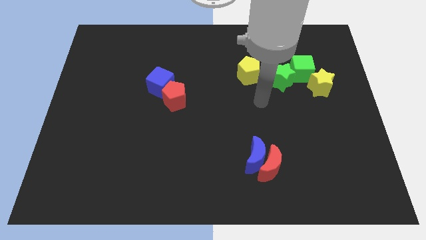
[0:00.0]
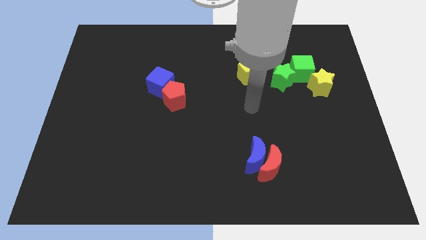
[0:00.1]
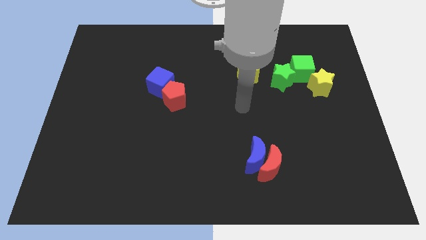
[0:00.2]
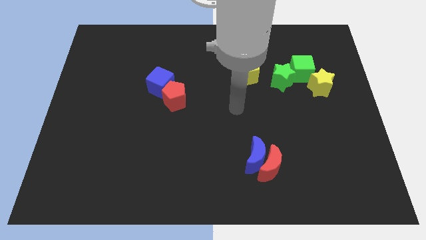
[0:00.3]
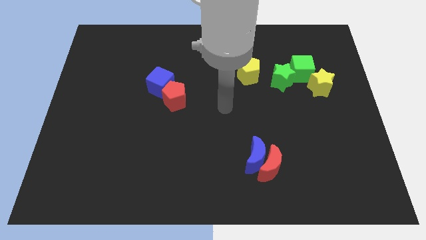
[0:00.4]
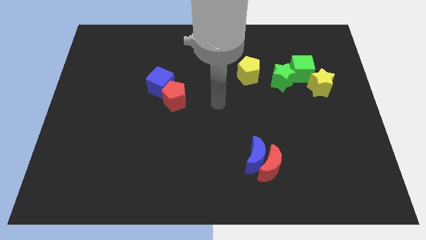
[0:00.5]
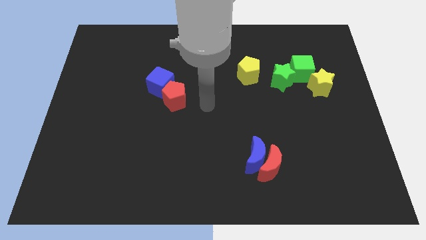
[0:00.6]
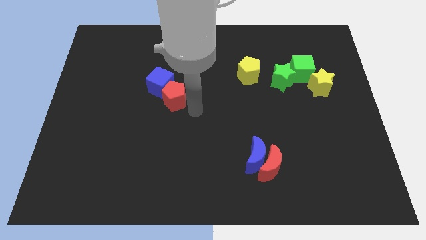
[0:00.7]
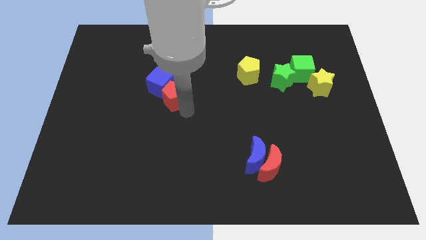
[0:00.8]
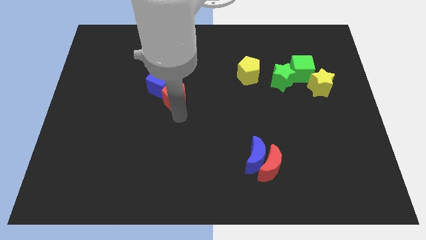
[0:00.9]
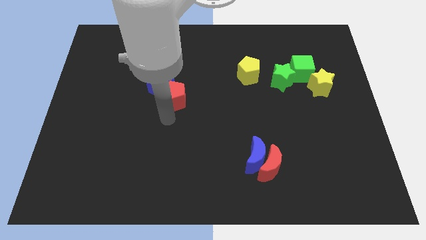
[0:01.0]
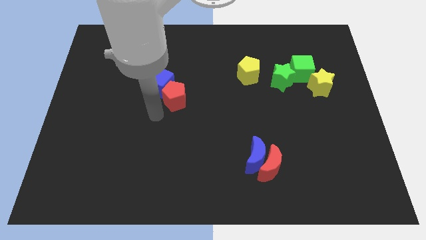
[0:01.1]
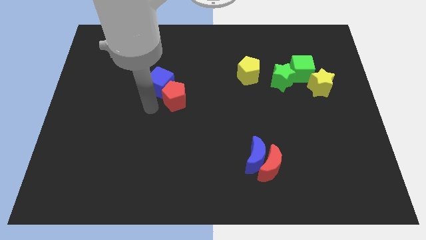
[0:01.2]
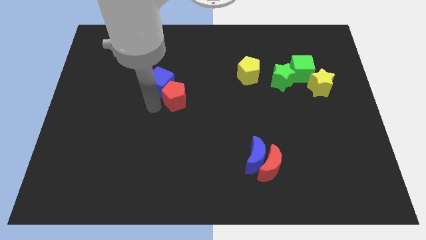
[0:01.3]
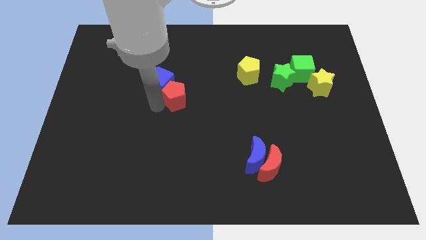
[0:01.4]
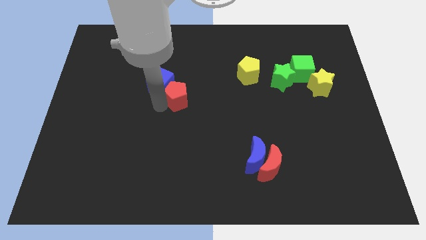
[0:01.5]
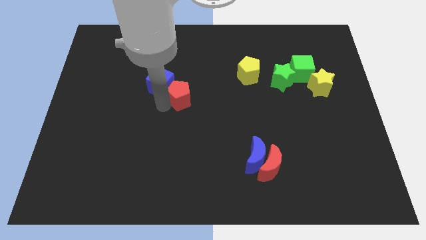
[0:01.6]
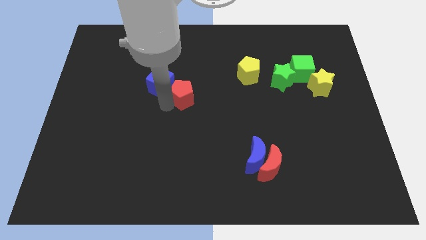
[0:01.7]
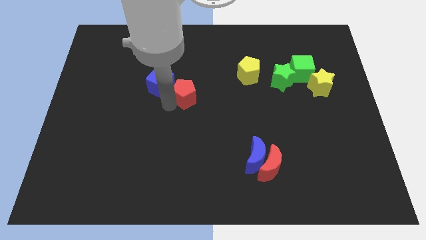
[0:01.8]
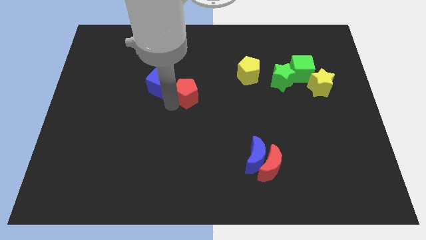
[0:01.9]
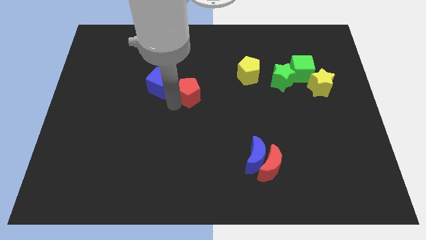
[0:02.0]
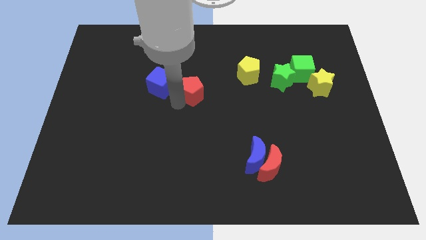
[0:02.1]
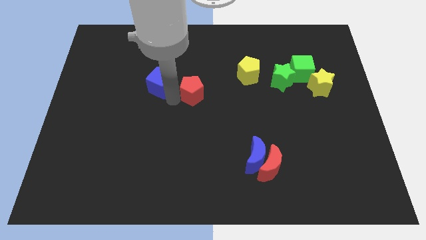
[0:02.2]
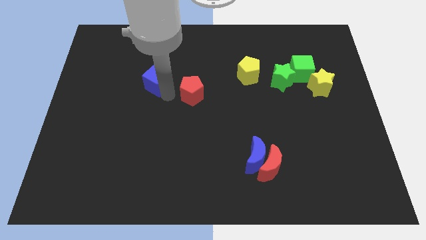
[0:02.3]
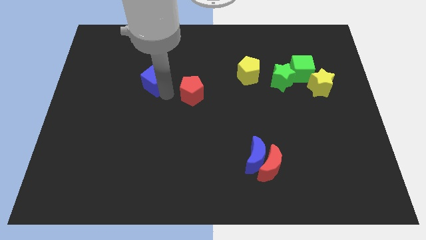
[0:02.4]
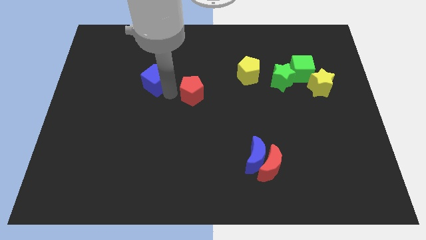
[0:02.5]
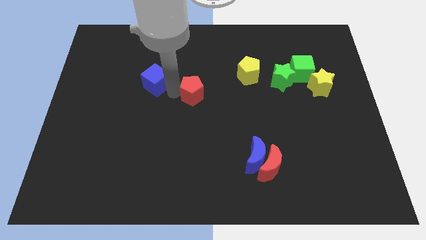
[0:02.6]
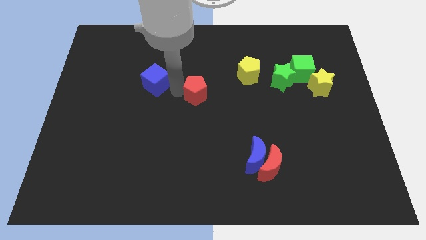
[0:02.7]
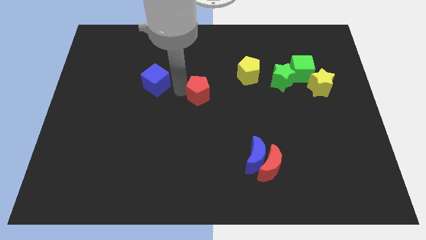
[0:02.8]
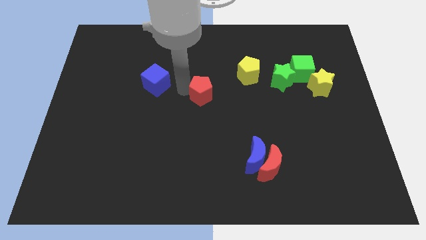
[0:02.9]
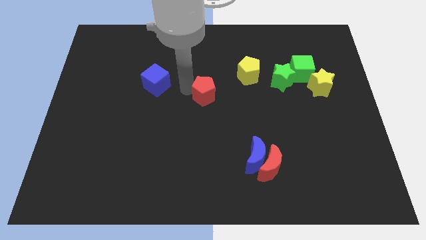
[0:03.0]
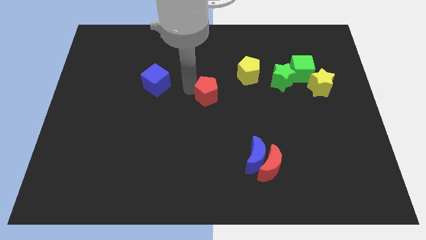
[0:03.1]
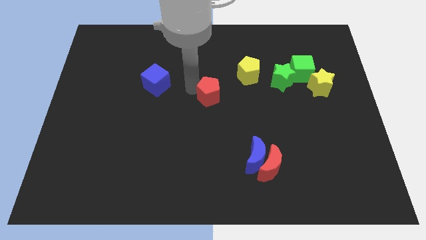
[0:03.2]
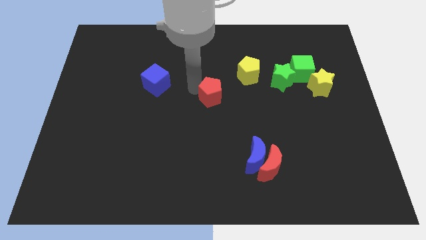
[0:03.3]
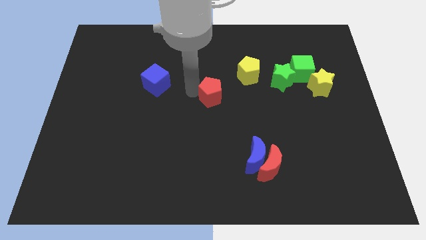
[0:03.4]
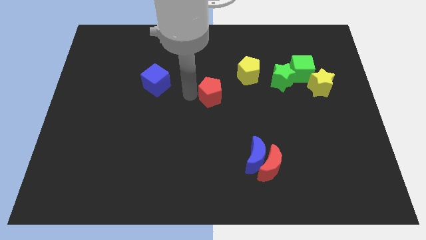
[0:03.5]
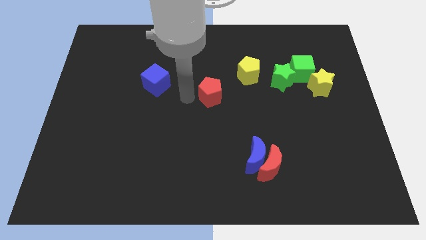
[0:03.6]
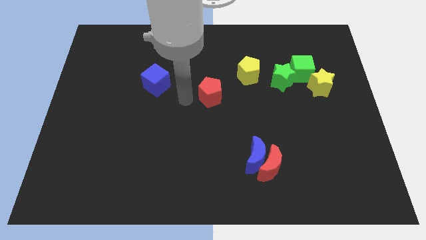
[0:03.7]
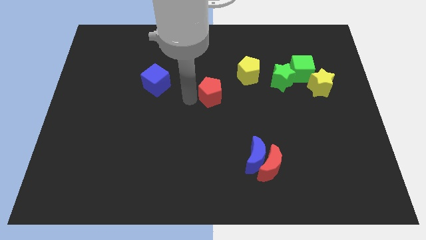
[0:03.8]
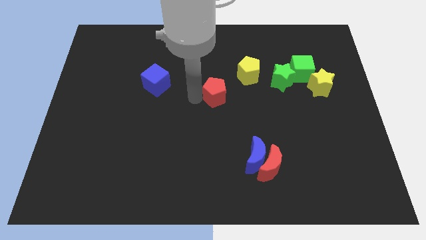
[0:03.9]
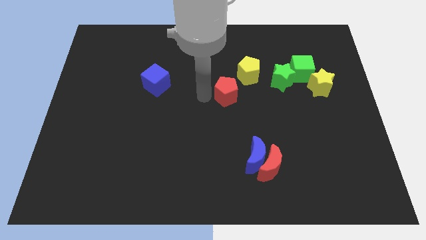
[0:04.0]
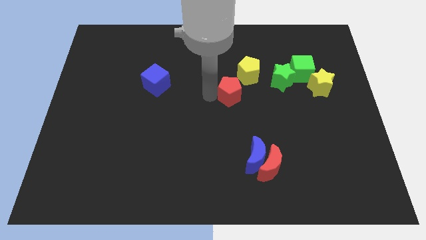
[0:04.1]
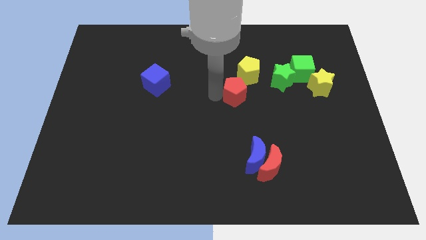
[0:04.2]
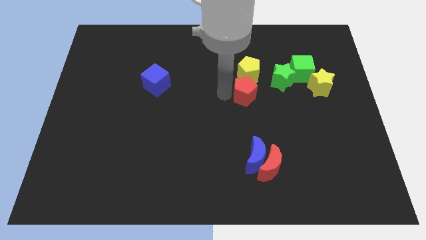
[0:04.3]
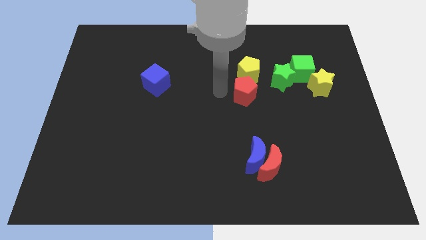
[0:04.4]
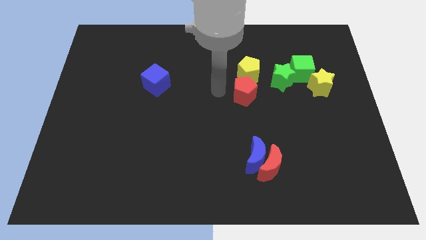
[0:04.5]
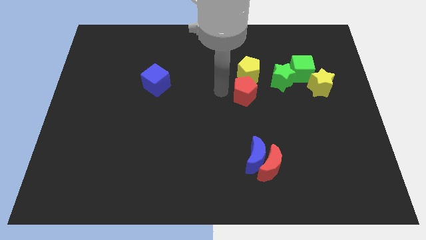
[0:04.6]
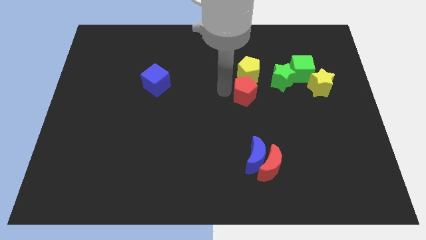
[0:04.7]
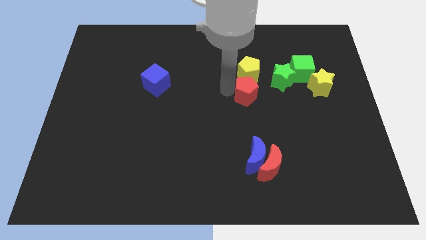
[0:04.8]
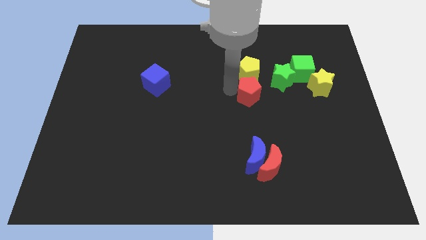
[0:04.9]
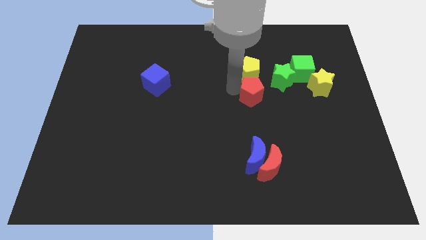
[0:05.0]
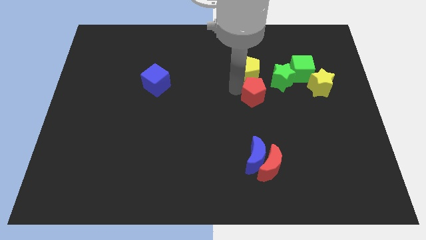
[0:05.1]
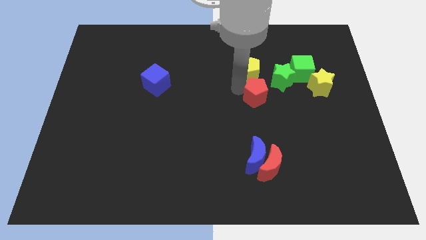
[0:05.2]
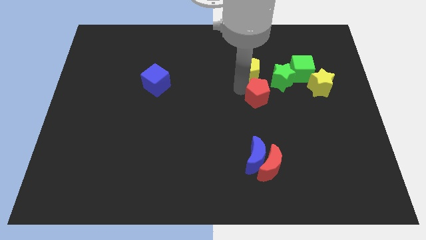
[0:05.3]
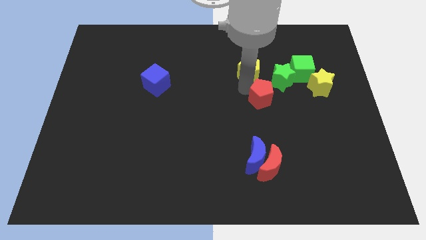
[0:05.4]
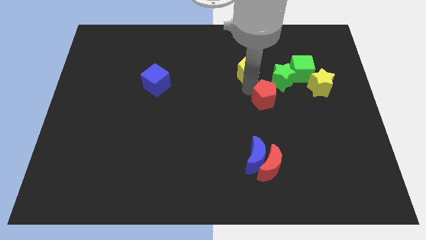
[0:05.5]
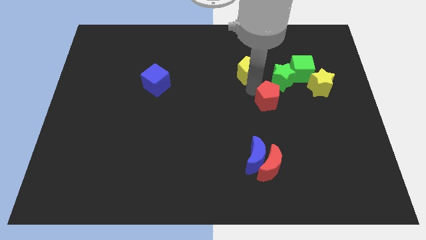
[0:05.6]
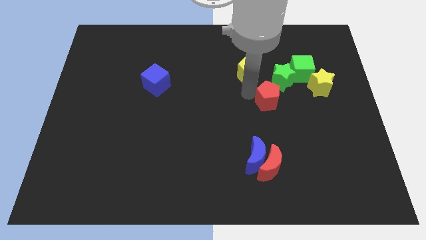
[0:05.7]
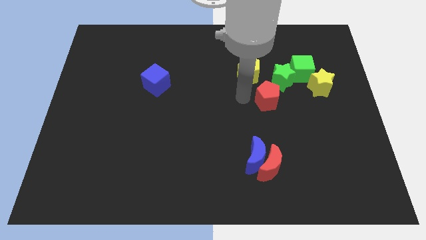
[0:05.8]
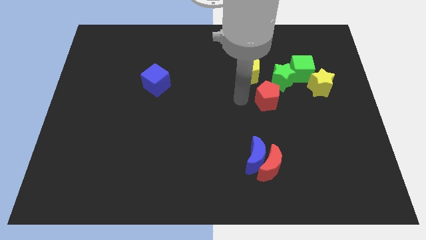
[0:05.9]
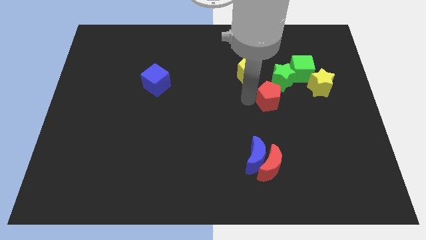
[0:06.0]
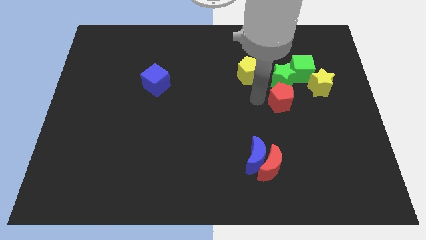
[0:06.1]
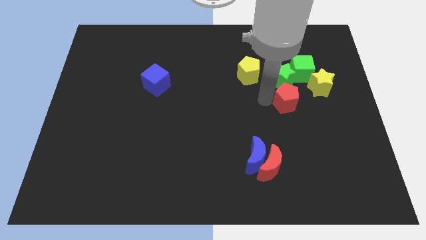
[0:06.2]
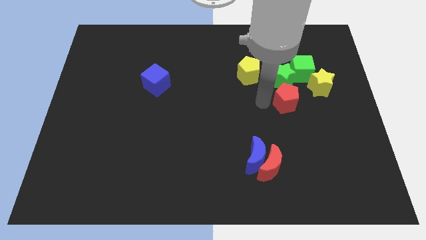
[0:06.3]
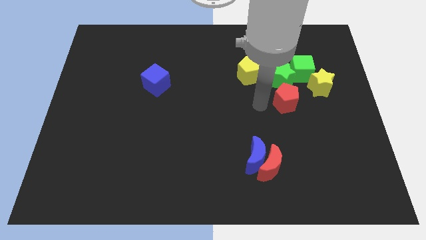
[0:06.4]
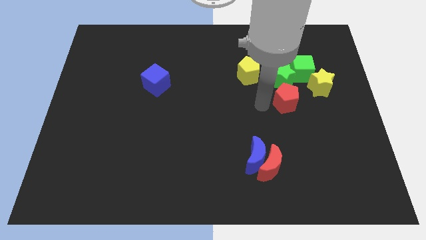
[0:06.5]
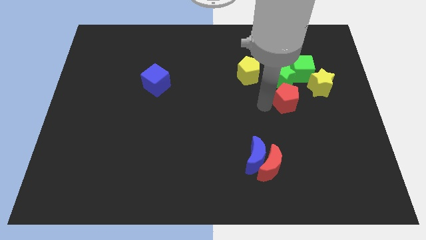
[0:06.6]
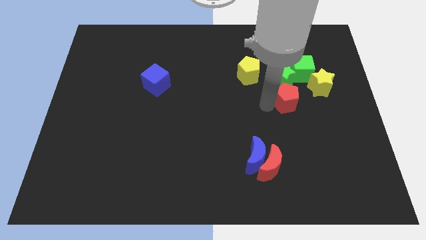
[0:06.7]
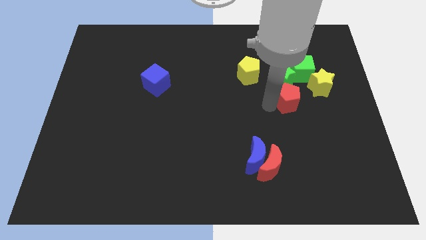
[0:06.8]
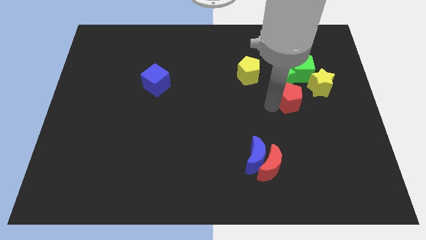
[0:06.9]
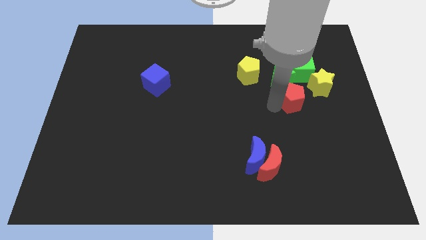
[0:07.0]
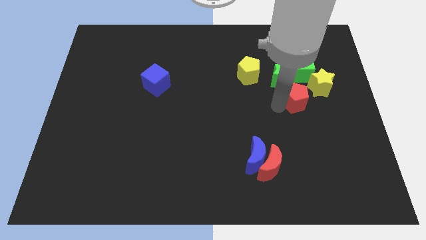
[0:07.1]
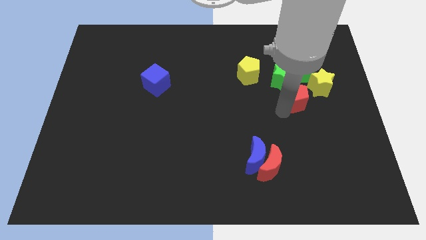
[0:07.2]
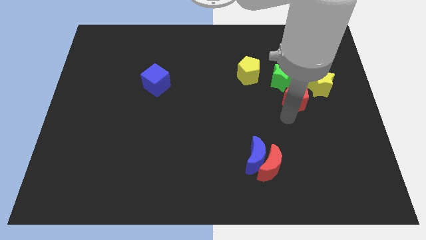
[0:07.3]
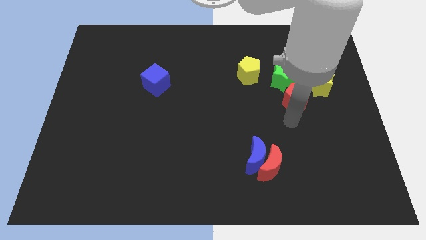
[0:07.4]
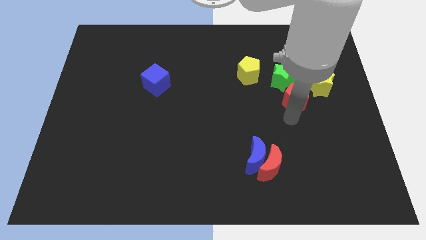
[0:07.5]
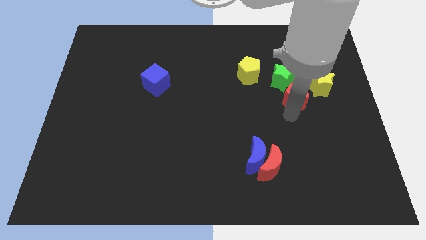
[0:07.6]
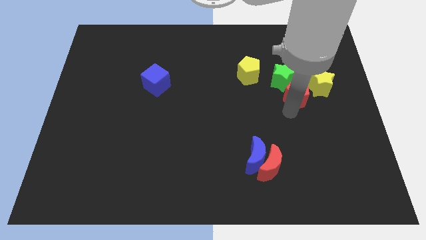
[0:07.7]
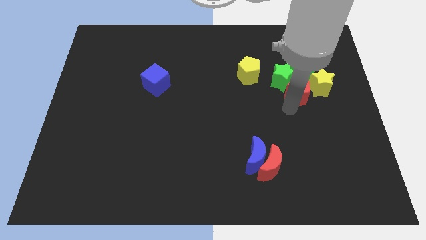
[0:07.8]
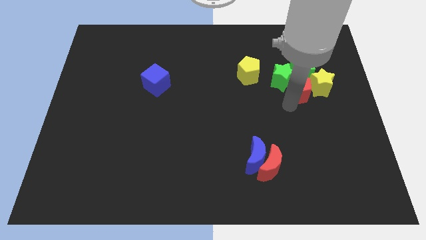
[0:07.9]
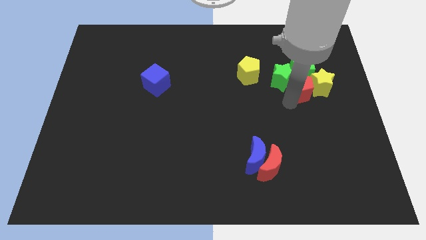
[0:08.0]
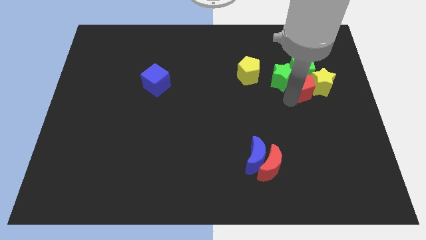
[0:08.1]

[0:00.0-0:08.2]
move the red pentagon towards the green cube
